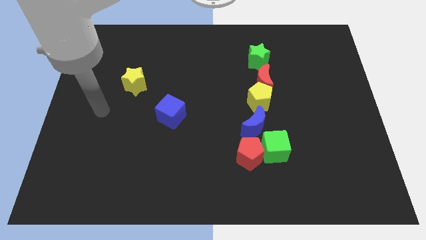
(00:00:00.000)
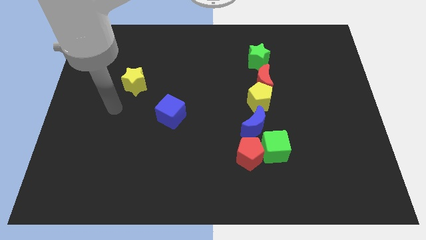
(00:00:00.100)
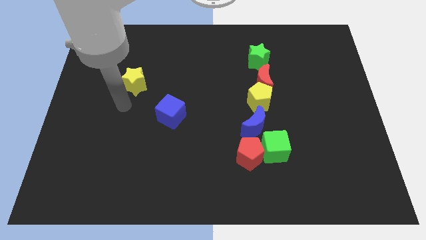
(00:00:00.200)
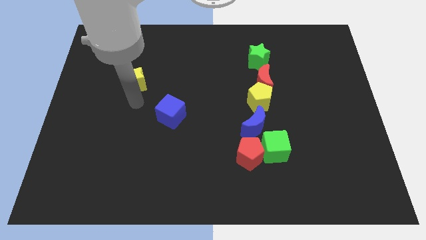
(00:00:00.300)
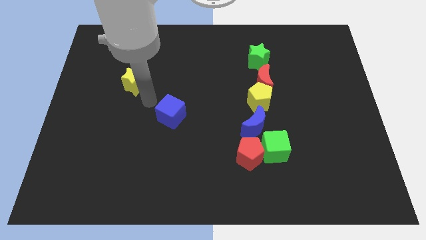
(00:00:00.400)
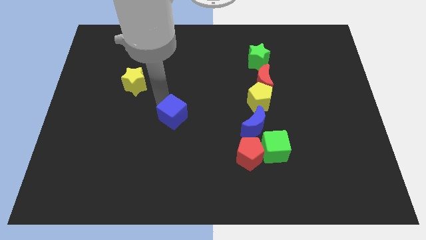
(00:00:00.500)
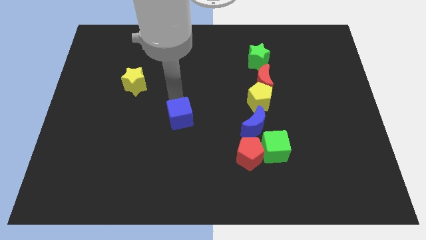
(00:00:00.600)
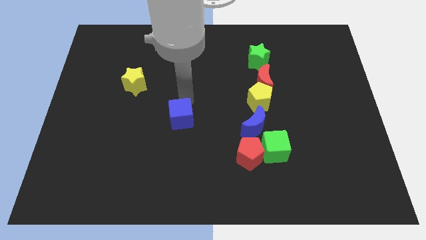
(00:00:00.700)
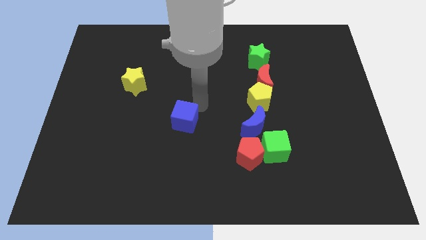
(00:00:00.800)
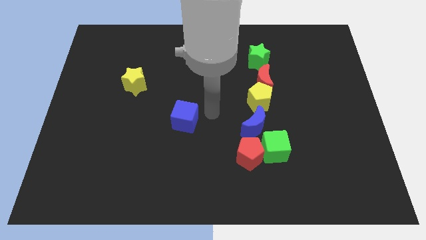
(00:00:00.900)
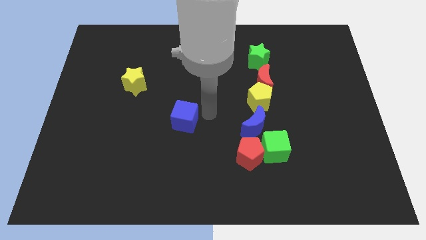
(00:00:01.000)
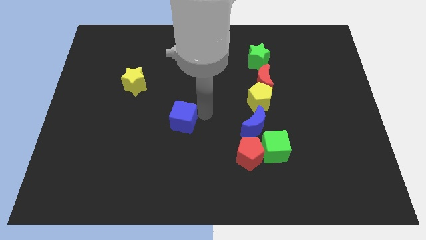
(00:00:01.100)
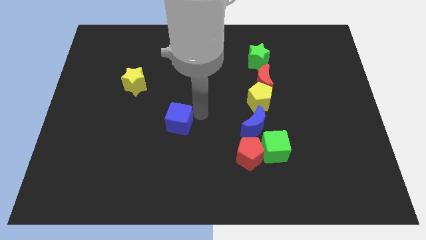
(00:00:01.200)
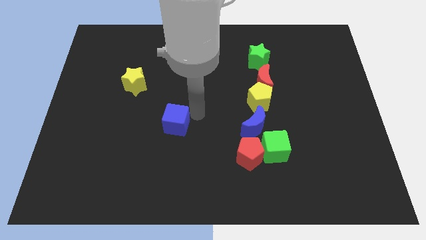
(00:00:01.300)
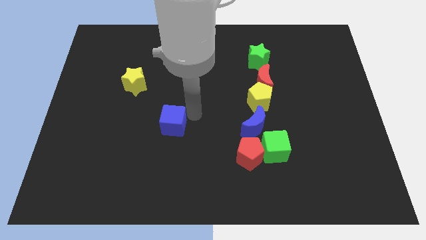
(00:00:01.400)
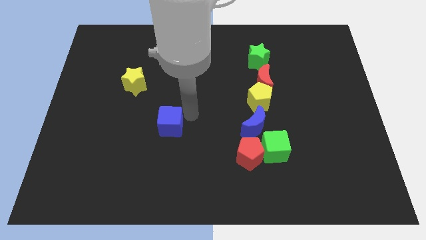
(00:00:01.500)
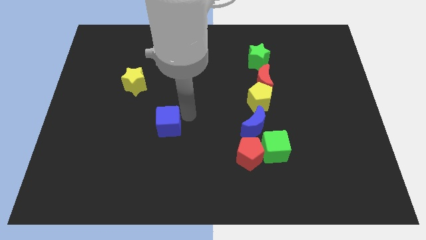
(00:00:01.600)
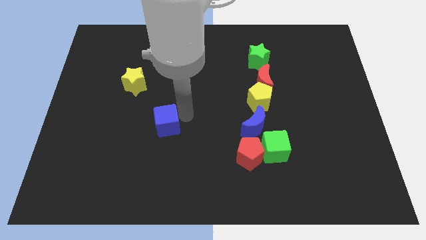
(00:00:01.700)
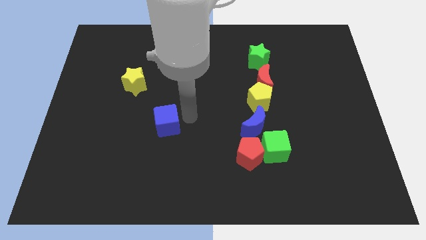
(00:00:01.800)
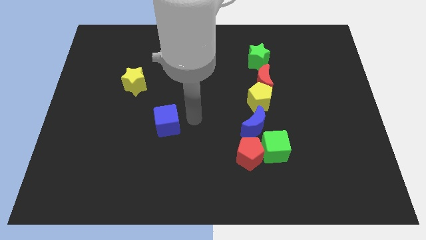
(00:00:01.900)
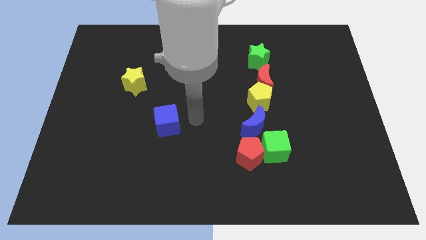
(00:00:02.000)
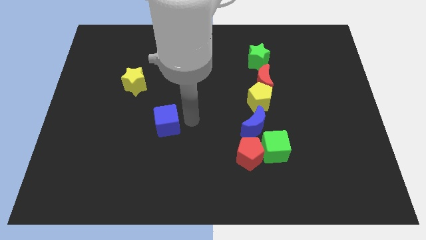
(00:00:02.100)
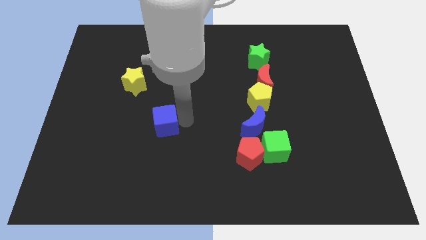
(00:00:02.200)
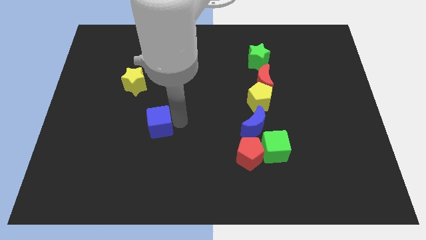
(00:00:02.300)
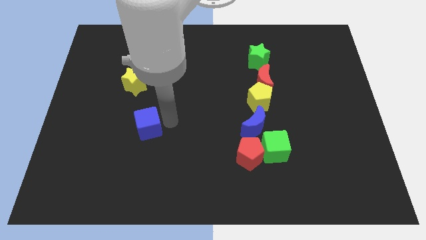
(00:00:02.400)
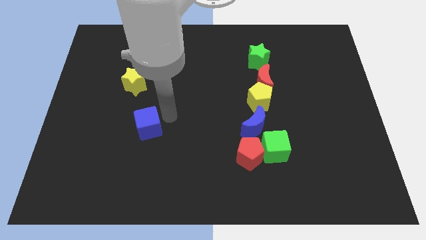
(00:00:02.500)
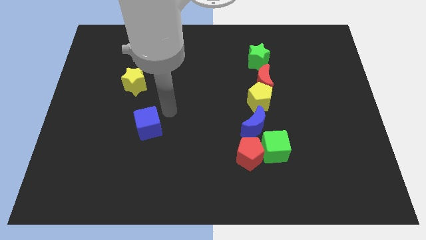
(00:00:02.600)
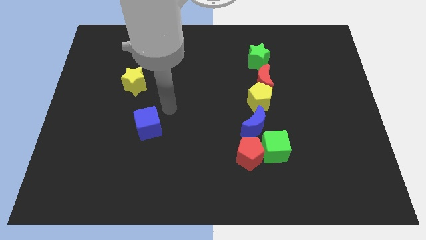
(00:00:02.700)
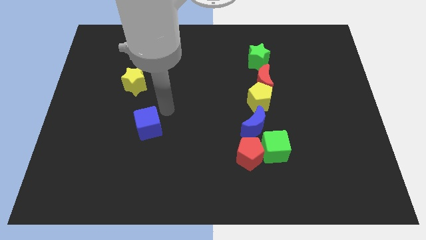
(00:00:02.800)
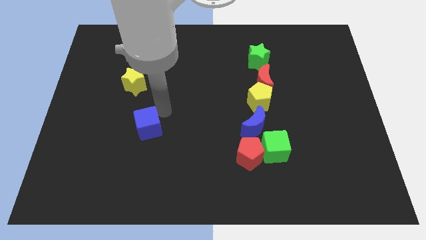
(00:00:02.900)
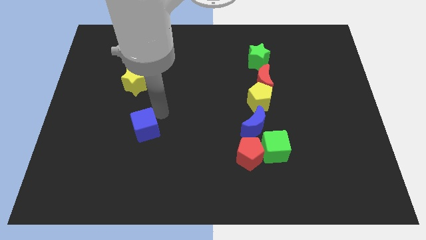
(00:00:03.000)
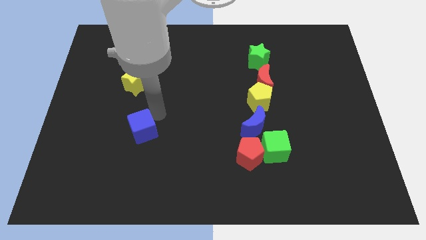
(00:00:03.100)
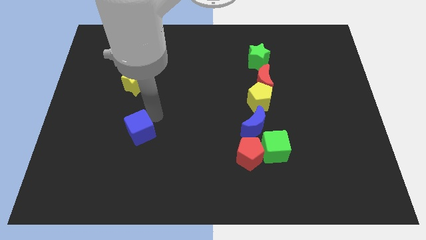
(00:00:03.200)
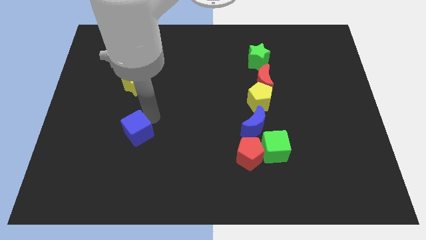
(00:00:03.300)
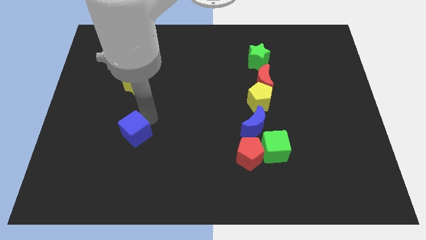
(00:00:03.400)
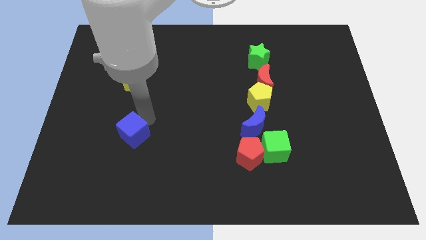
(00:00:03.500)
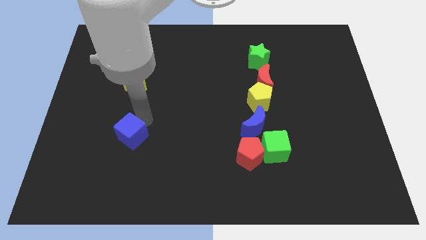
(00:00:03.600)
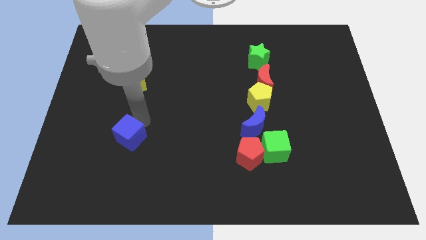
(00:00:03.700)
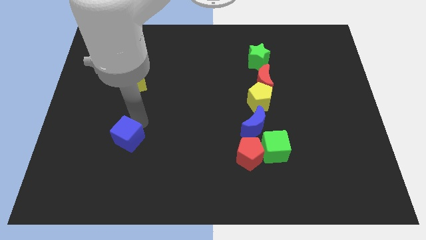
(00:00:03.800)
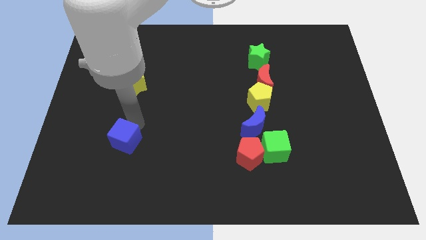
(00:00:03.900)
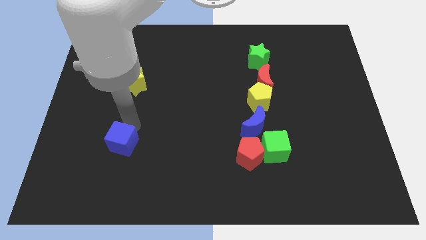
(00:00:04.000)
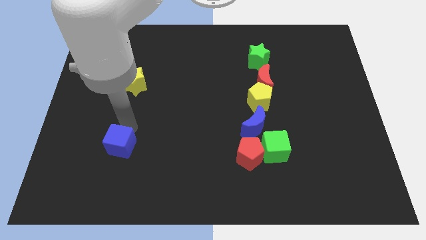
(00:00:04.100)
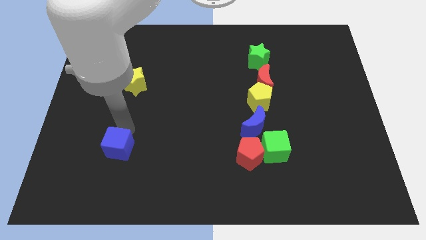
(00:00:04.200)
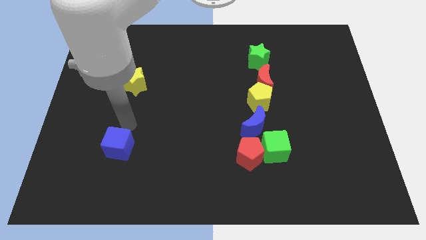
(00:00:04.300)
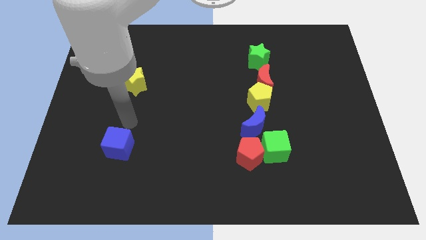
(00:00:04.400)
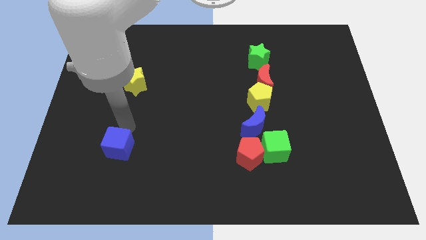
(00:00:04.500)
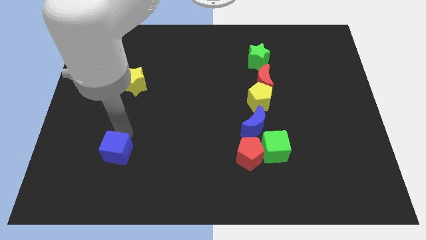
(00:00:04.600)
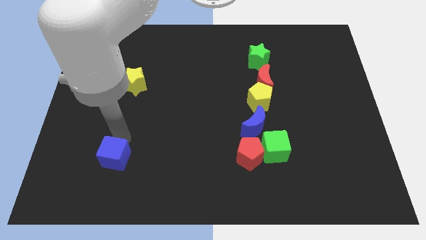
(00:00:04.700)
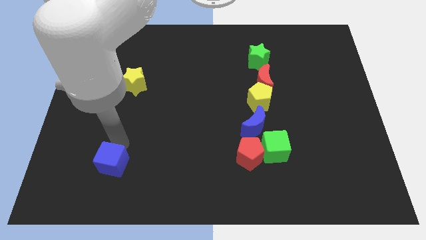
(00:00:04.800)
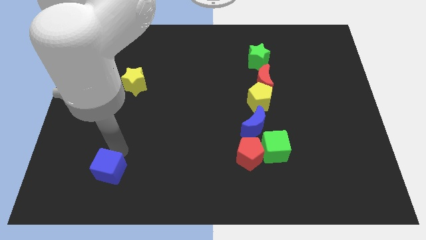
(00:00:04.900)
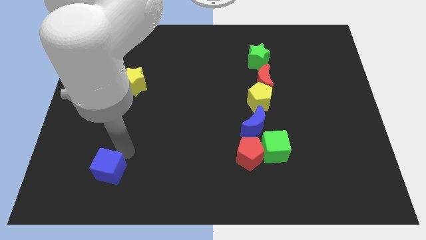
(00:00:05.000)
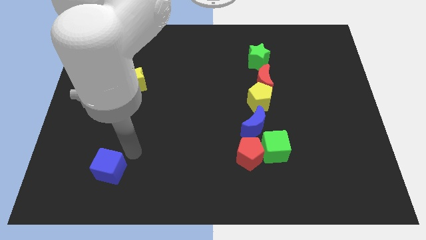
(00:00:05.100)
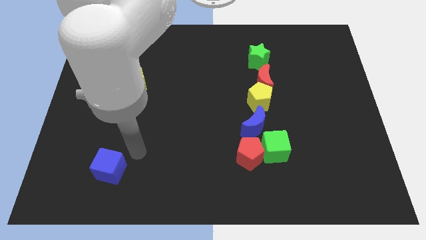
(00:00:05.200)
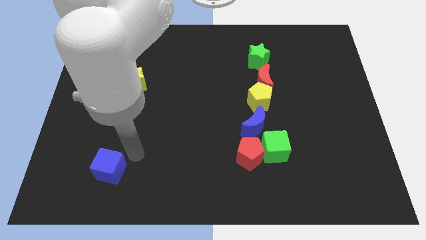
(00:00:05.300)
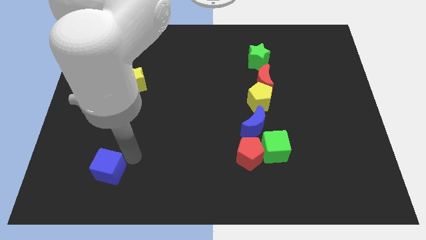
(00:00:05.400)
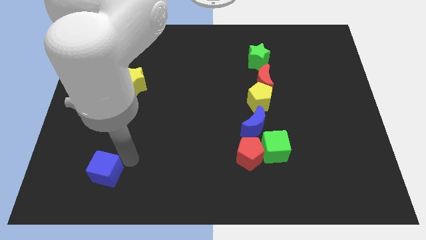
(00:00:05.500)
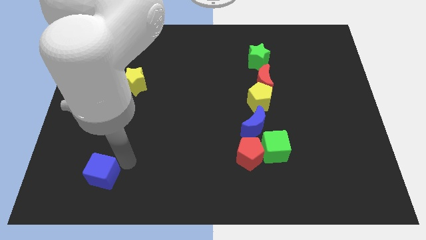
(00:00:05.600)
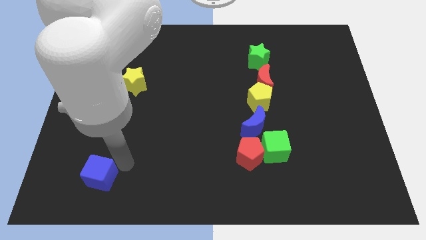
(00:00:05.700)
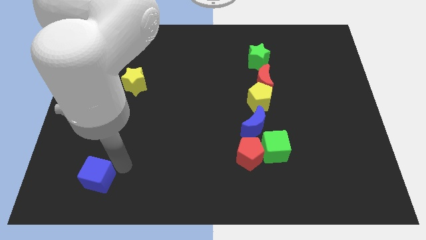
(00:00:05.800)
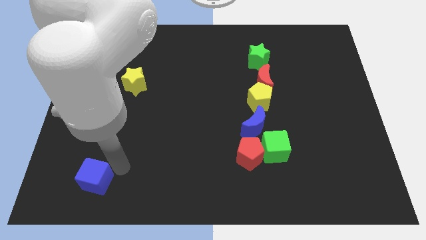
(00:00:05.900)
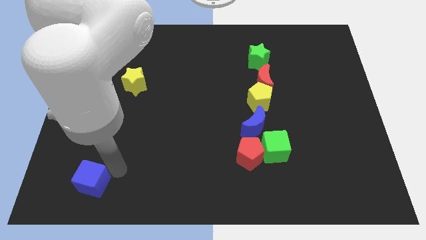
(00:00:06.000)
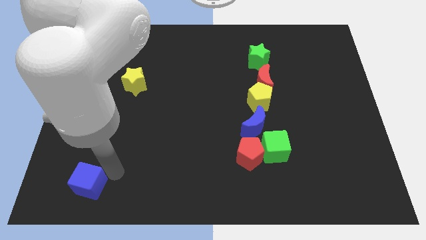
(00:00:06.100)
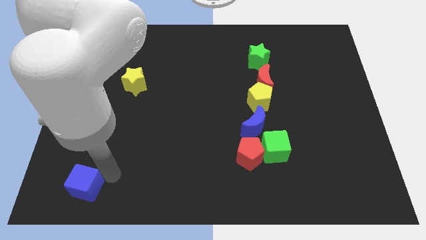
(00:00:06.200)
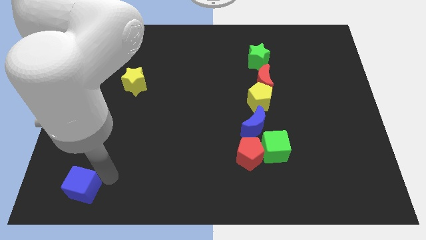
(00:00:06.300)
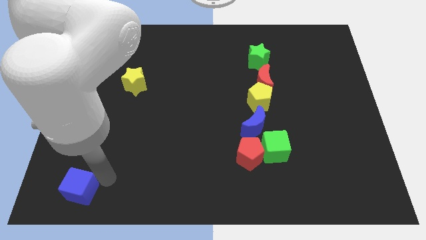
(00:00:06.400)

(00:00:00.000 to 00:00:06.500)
slide the blue cube to the bottom left of the board
